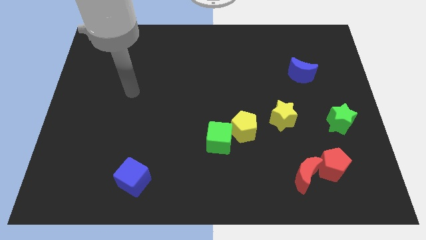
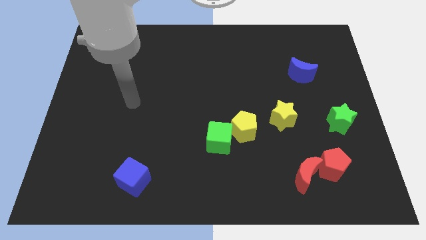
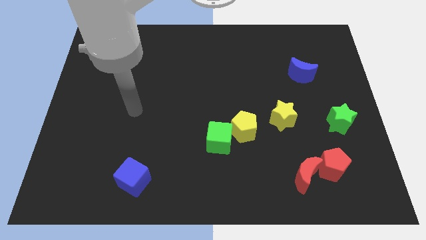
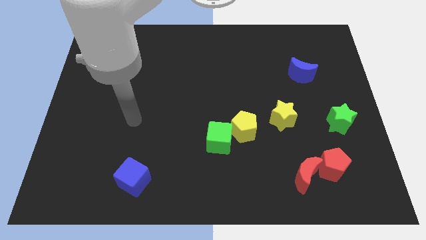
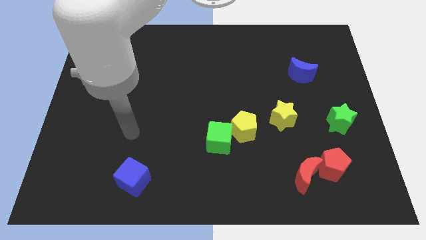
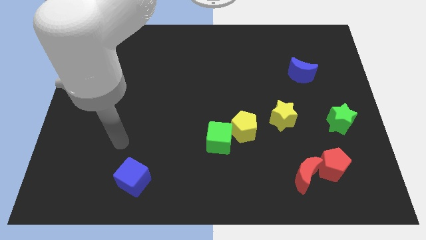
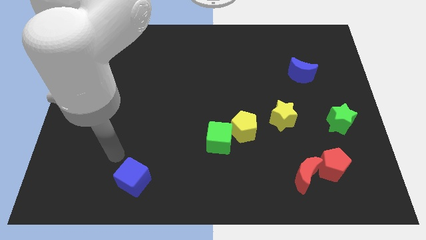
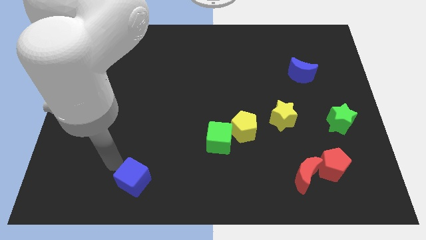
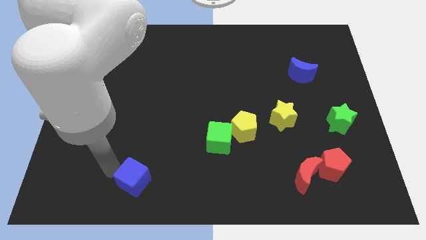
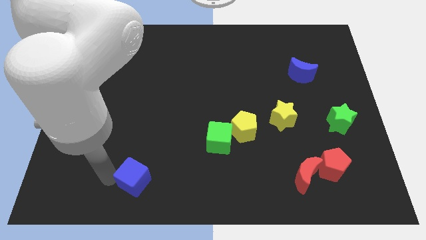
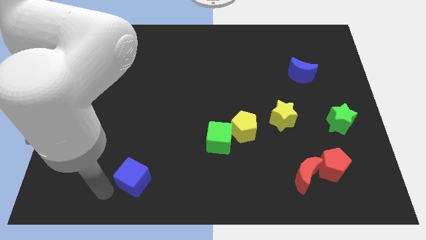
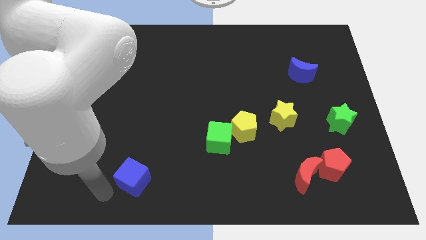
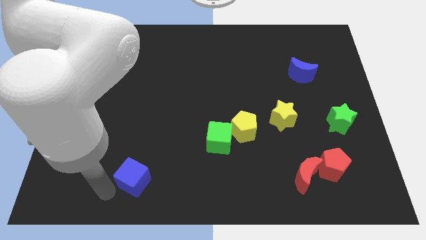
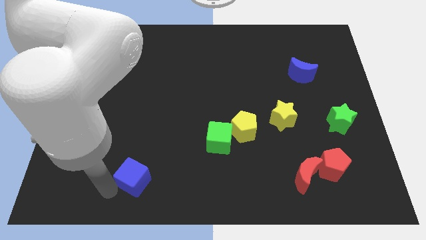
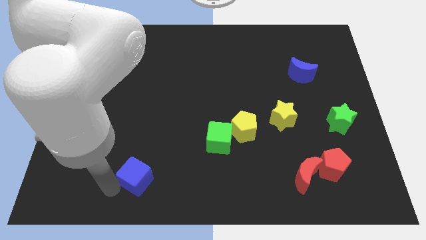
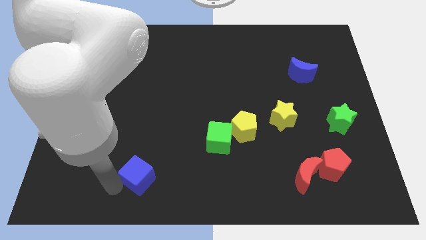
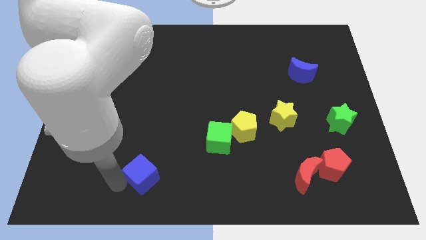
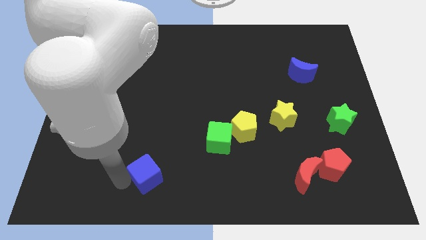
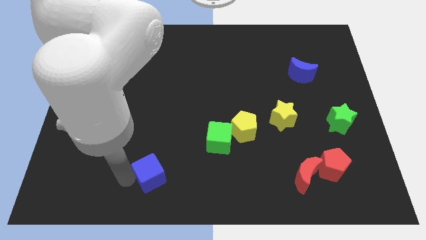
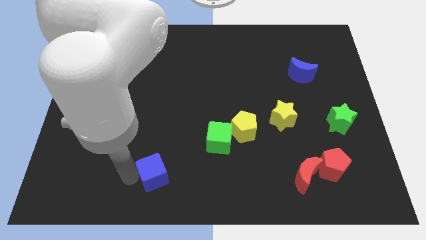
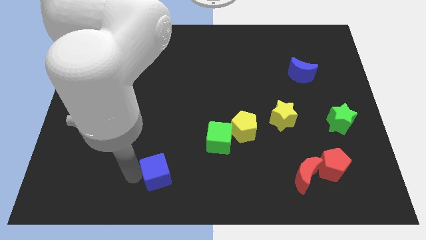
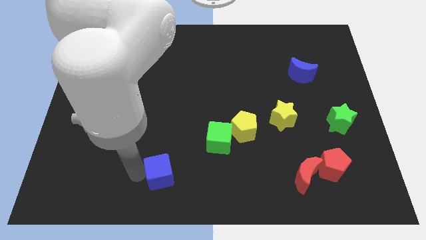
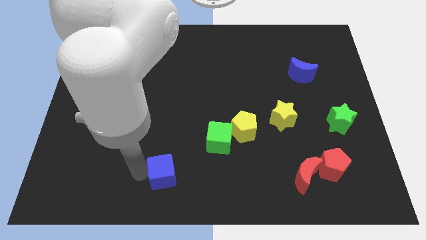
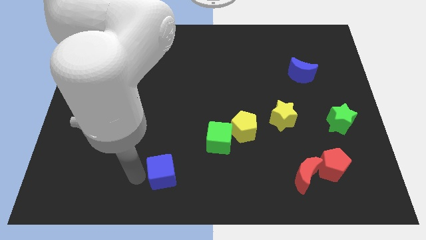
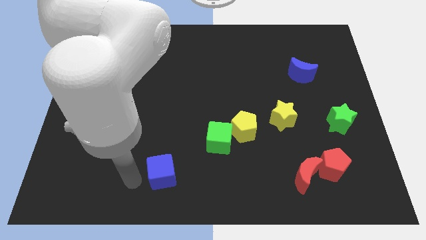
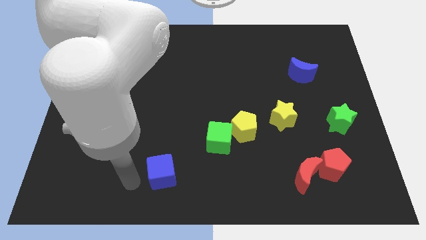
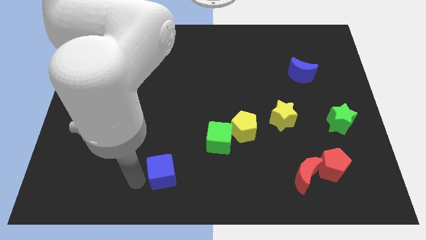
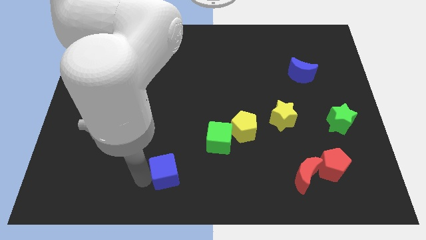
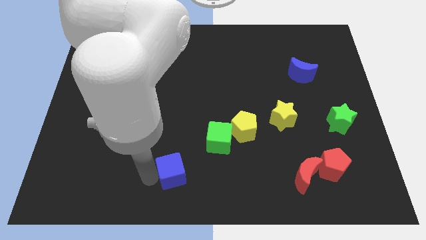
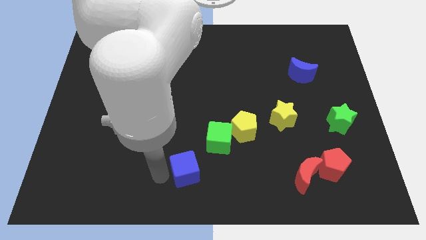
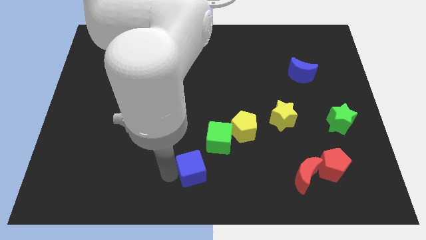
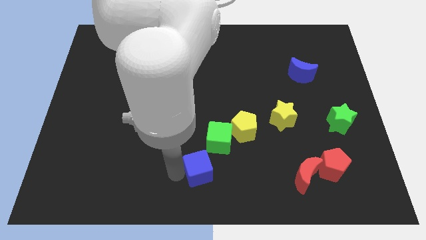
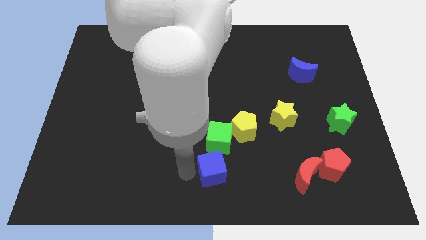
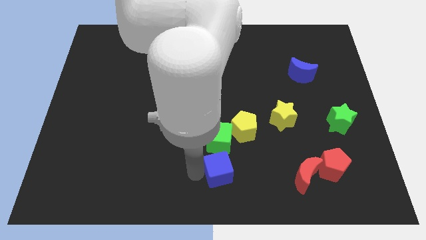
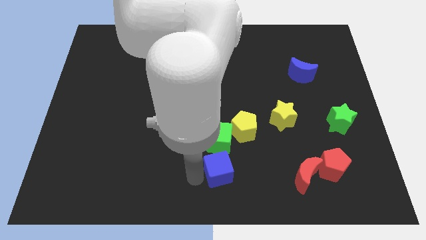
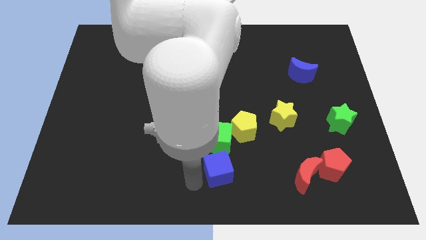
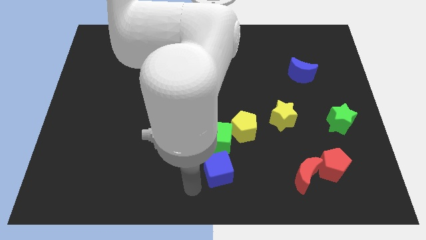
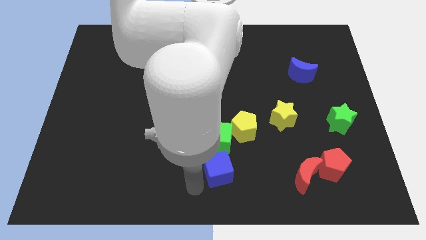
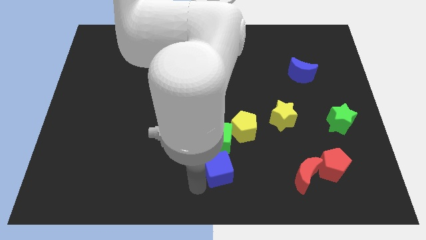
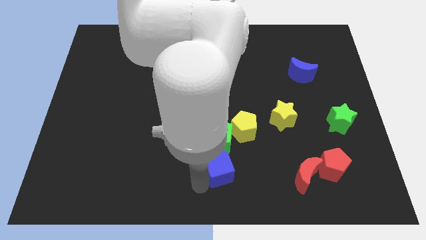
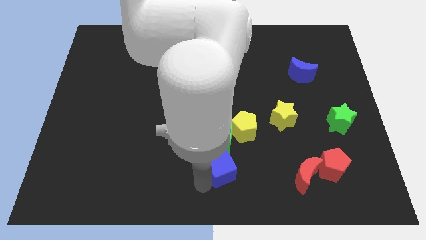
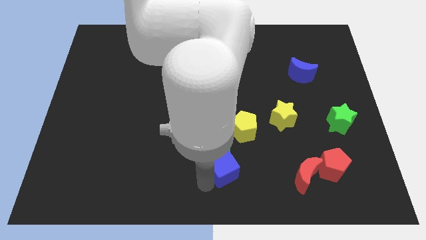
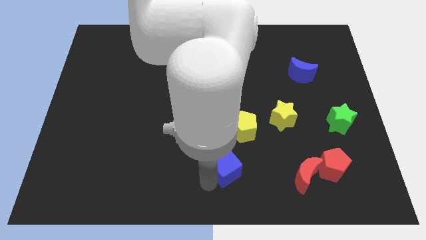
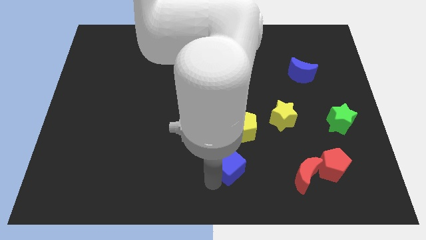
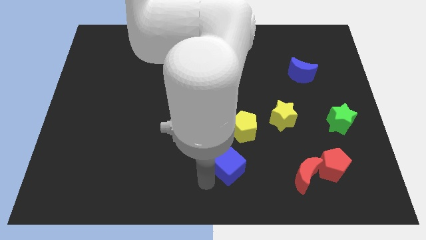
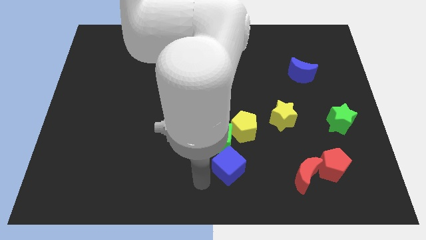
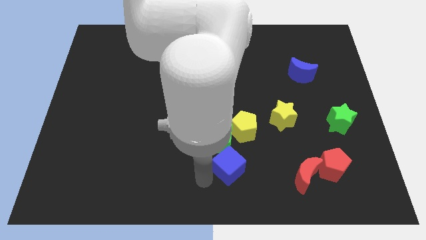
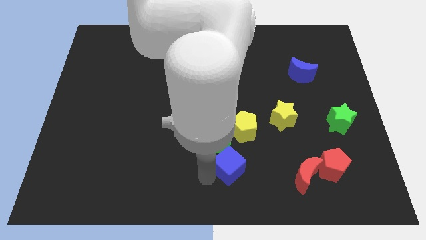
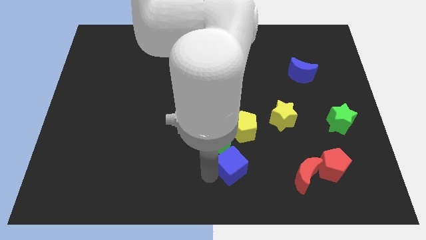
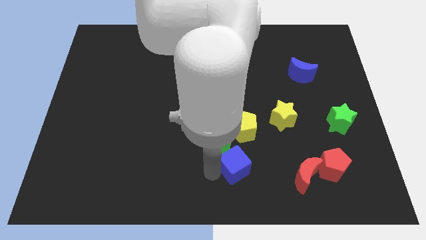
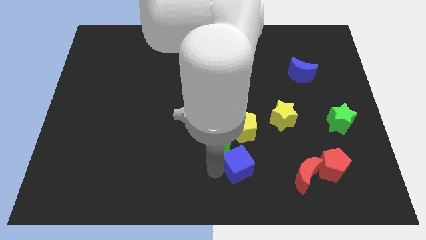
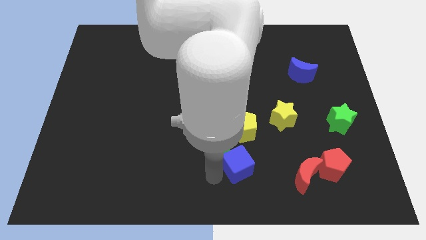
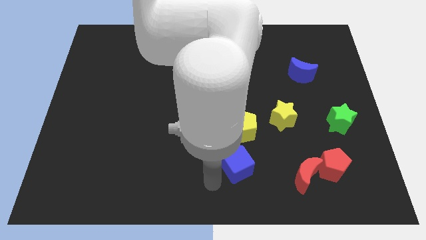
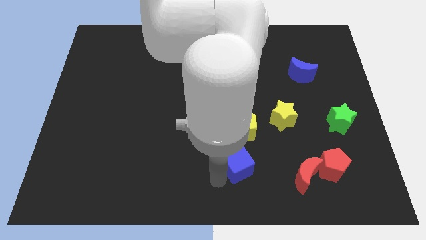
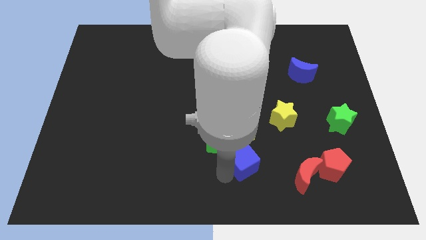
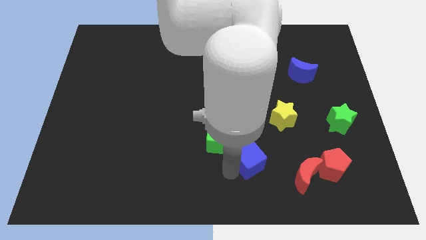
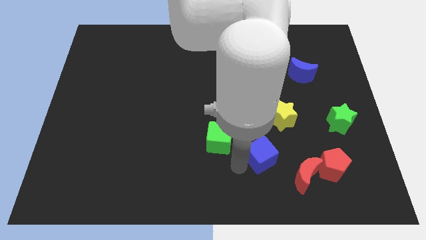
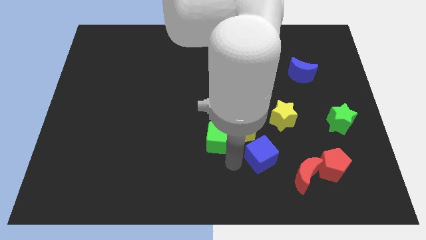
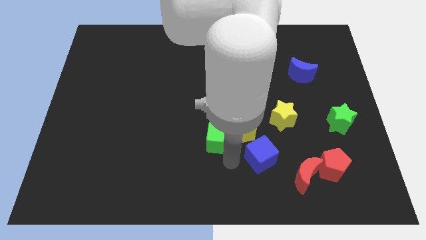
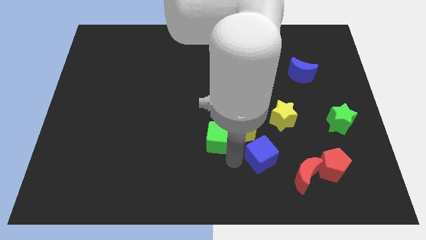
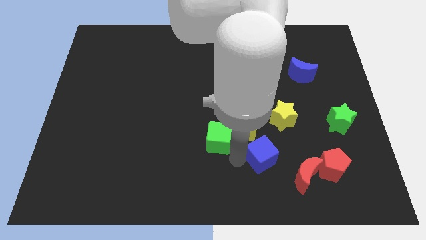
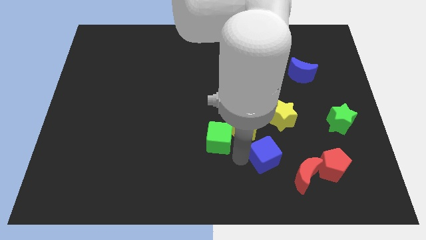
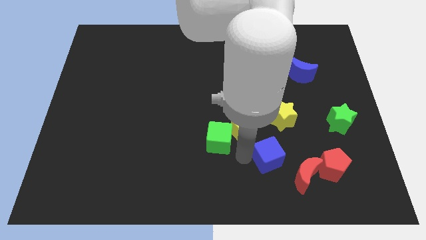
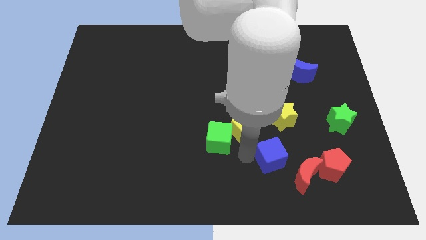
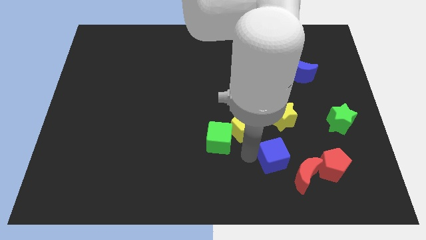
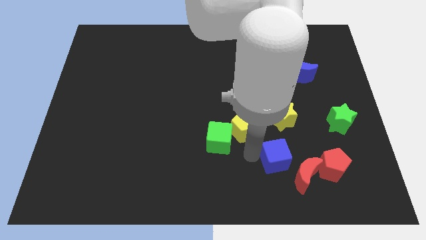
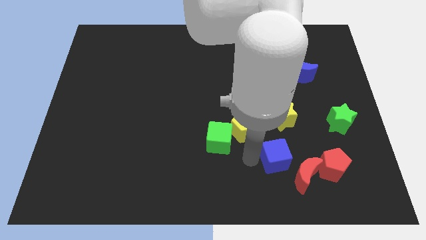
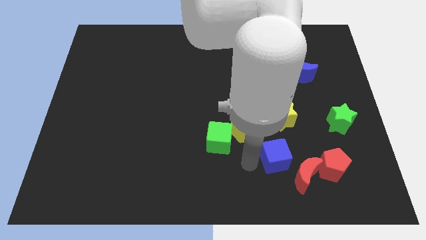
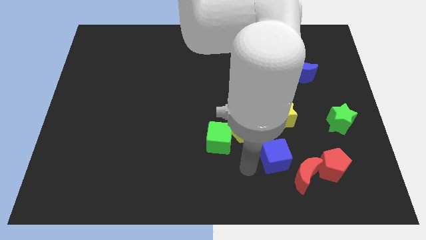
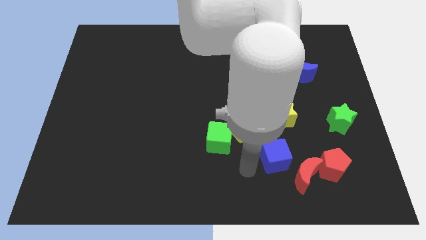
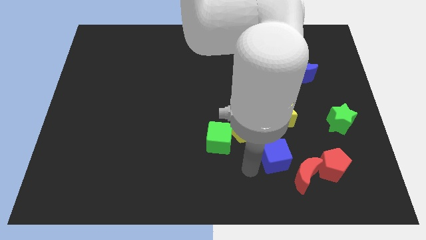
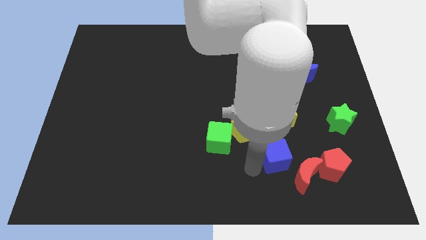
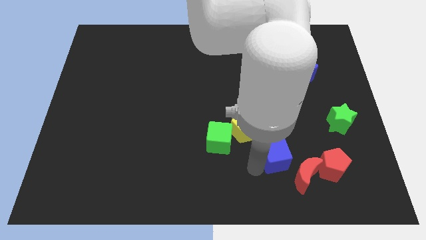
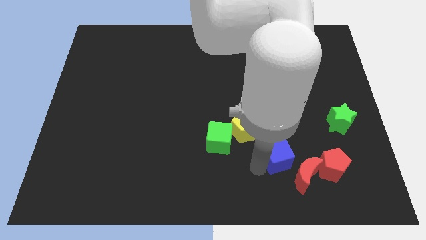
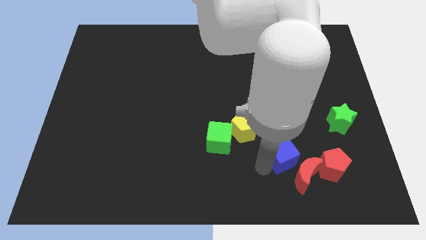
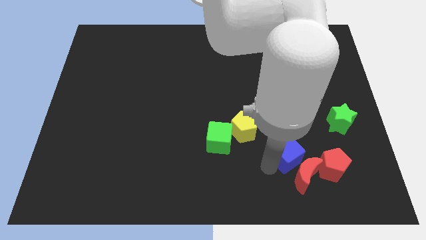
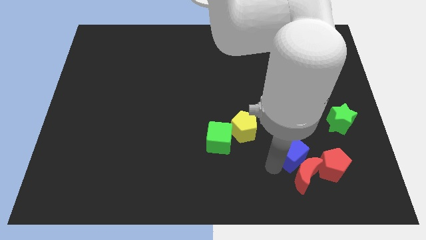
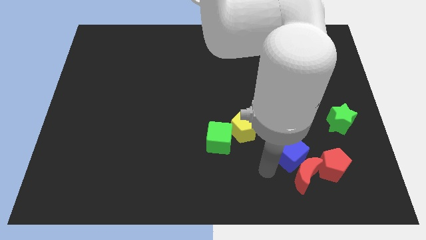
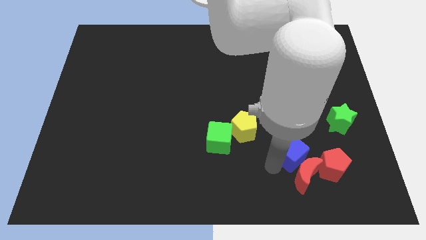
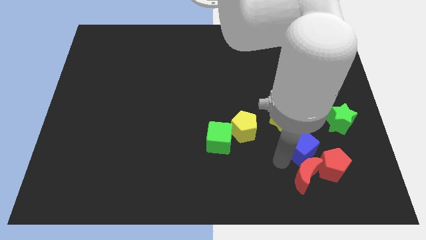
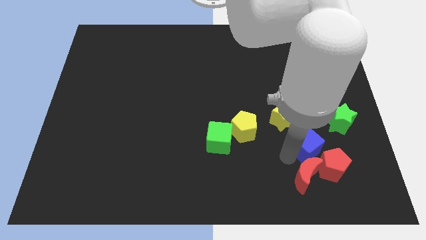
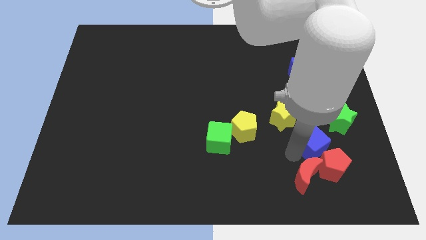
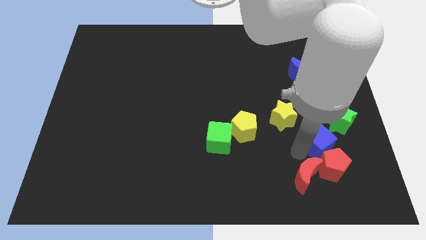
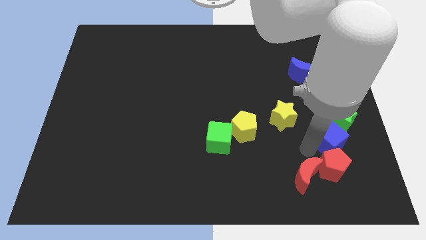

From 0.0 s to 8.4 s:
put the blue cube next to the green star
